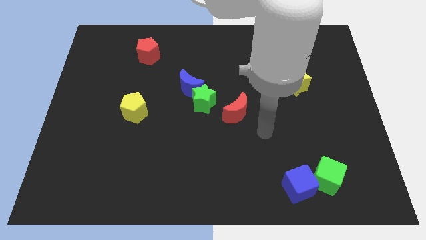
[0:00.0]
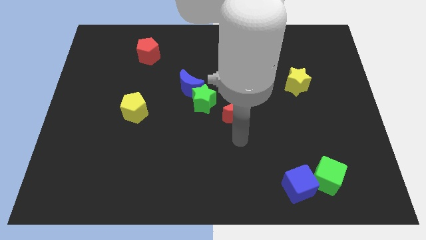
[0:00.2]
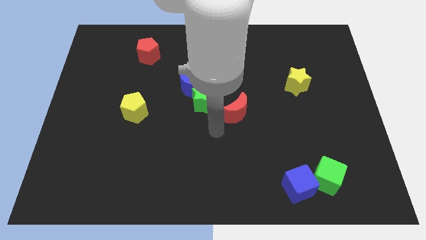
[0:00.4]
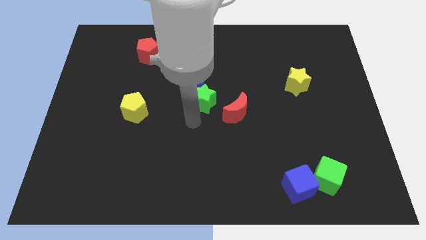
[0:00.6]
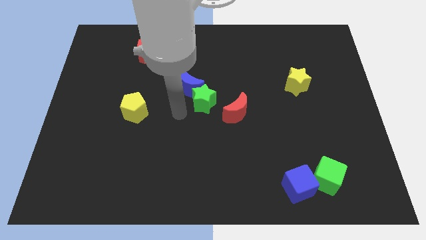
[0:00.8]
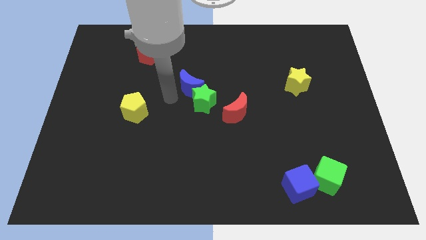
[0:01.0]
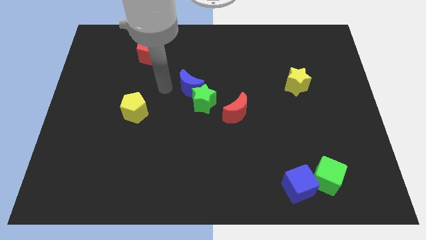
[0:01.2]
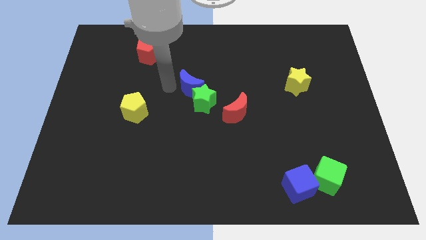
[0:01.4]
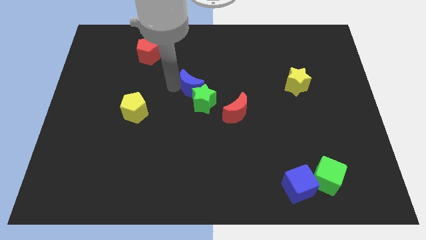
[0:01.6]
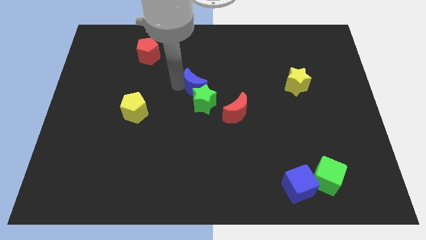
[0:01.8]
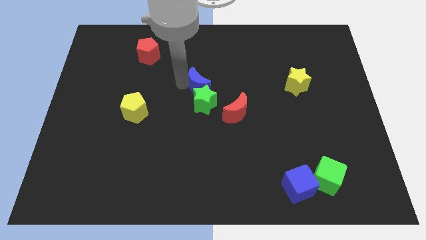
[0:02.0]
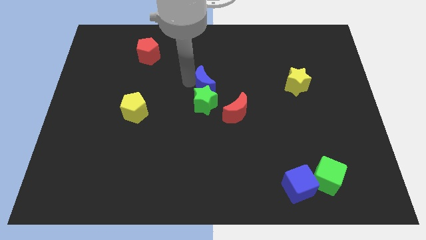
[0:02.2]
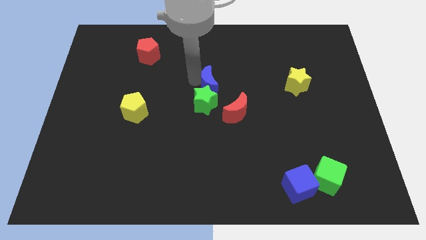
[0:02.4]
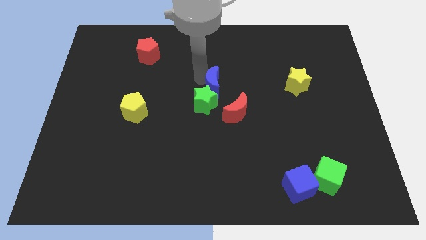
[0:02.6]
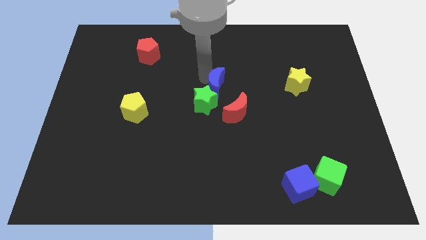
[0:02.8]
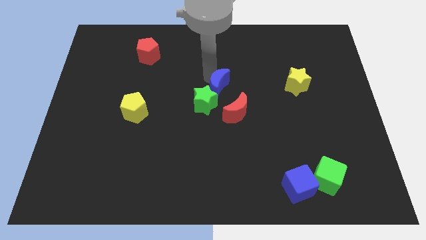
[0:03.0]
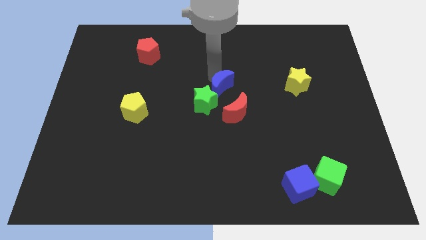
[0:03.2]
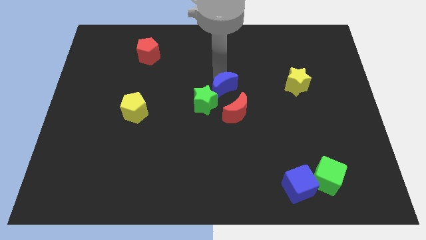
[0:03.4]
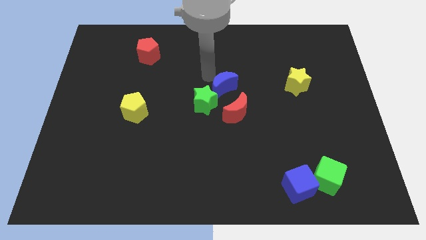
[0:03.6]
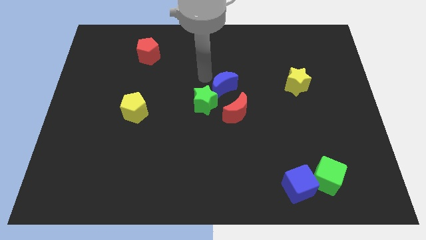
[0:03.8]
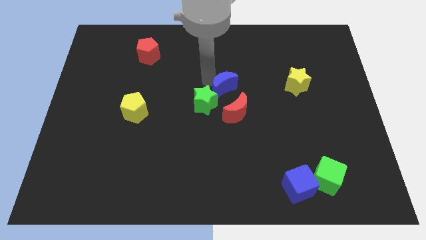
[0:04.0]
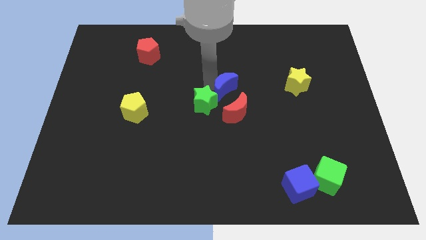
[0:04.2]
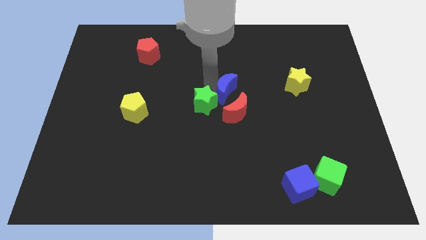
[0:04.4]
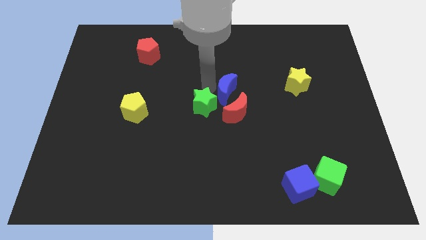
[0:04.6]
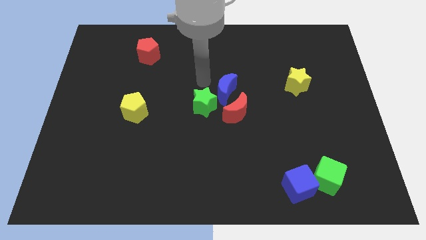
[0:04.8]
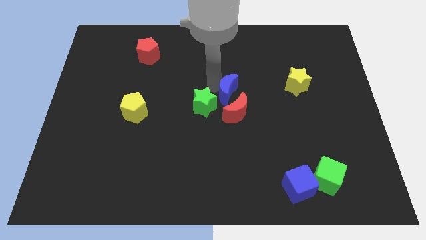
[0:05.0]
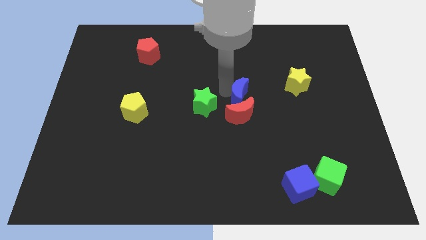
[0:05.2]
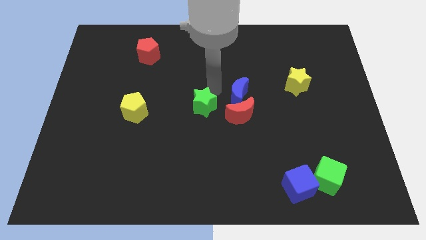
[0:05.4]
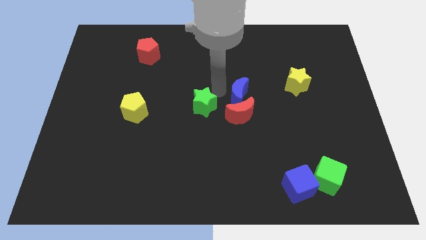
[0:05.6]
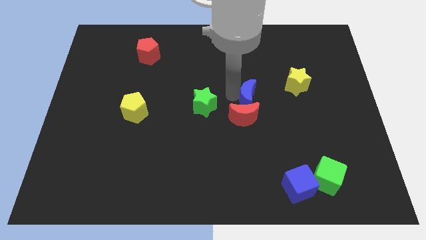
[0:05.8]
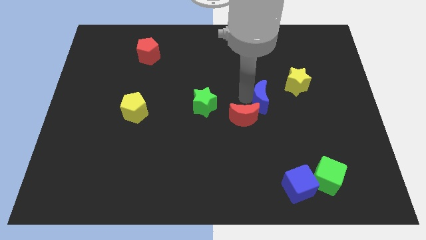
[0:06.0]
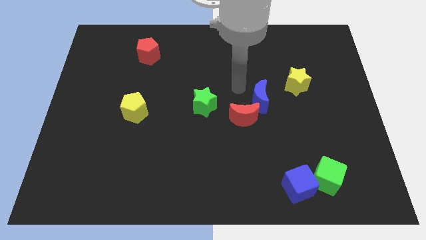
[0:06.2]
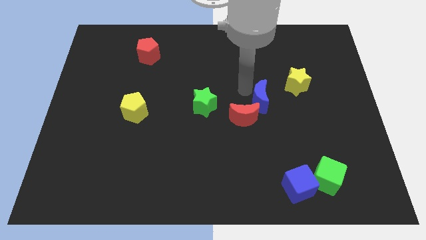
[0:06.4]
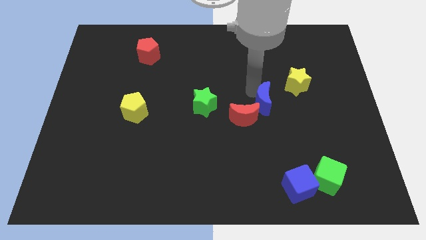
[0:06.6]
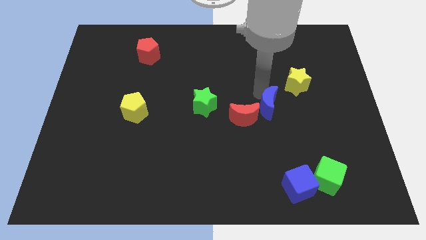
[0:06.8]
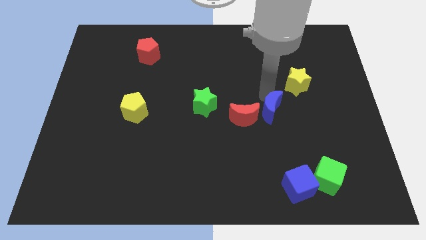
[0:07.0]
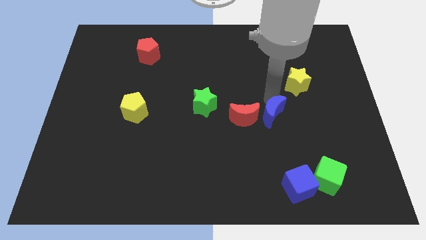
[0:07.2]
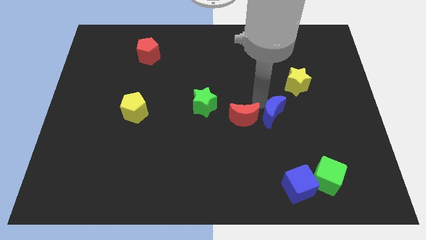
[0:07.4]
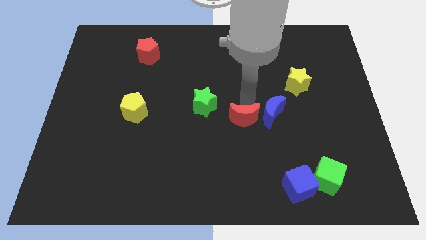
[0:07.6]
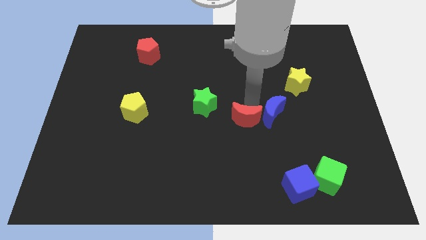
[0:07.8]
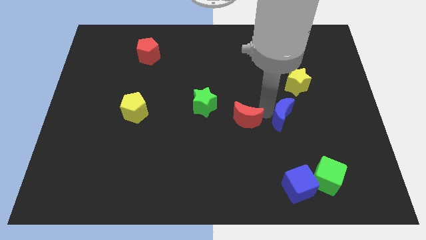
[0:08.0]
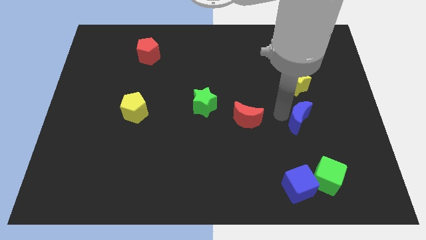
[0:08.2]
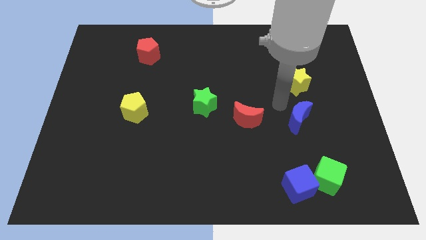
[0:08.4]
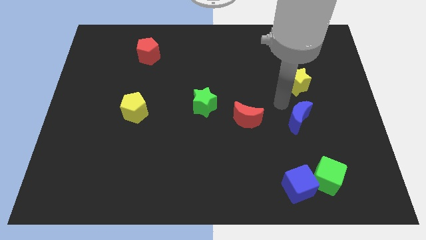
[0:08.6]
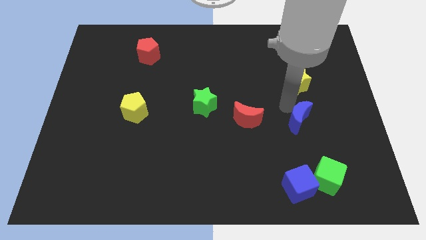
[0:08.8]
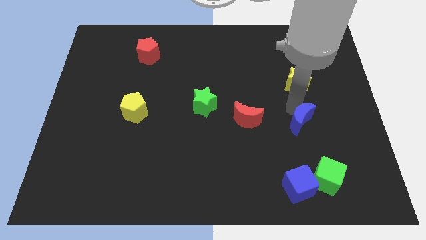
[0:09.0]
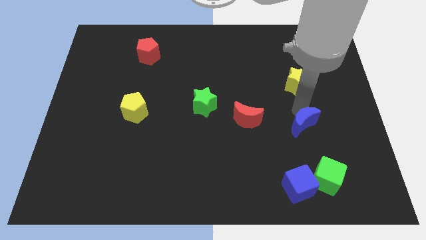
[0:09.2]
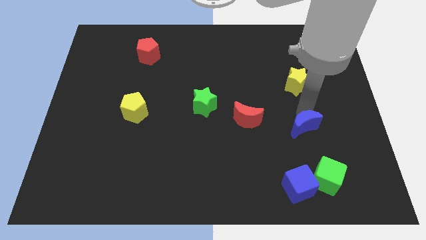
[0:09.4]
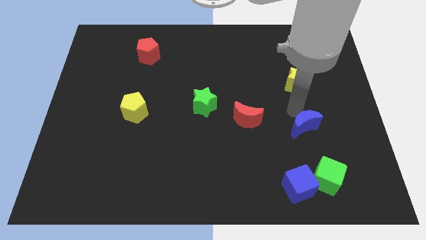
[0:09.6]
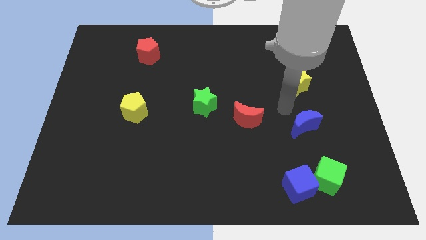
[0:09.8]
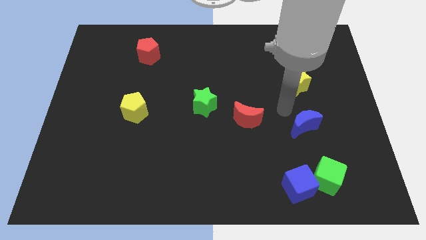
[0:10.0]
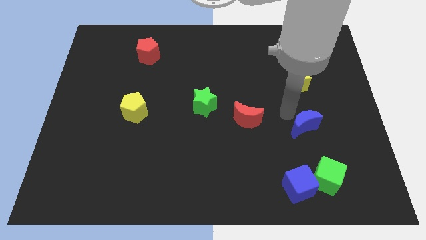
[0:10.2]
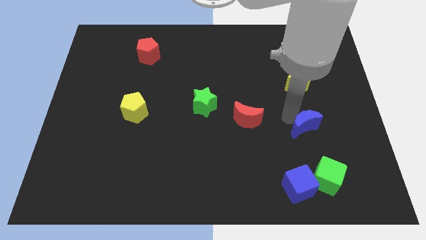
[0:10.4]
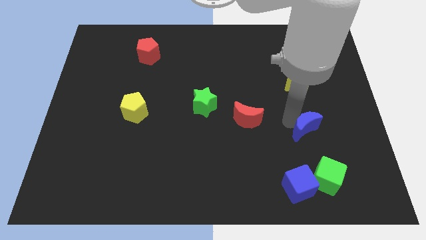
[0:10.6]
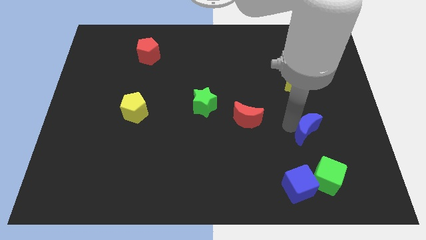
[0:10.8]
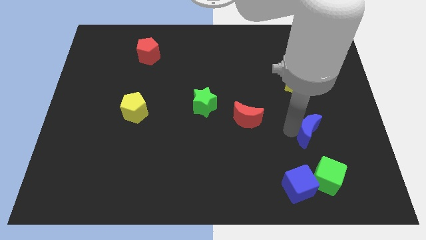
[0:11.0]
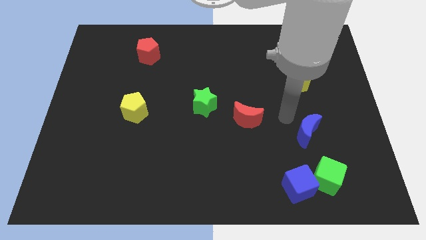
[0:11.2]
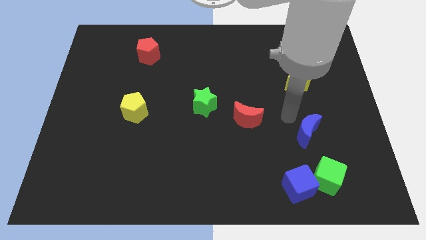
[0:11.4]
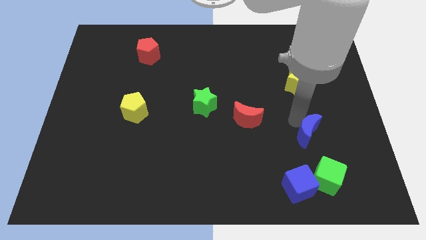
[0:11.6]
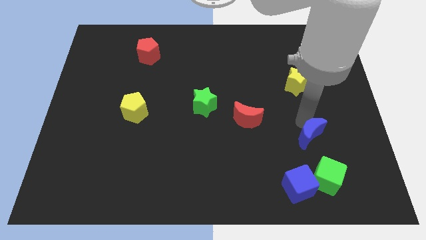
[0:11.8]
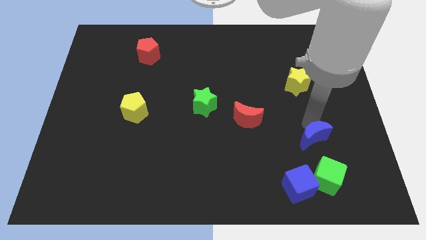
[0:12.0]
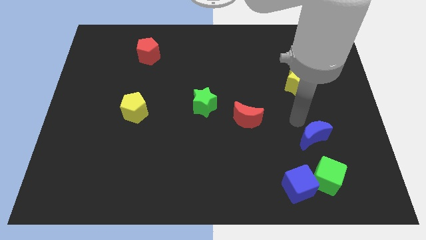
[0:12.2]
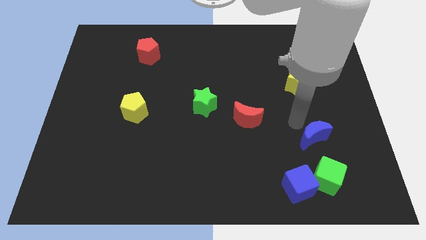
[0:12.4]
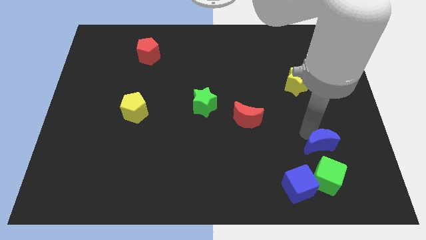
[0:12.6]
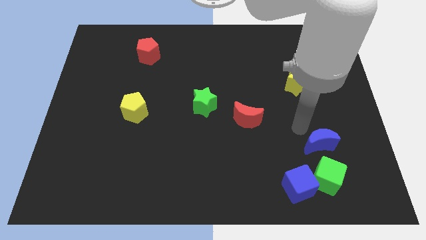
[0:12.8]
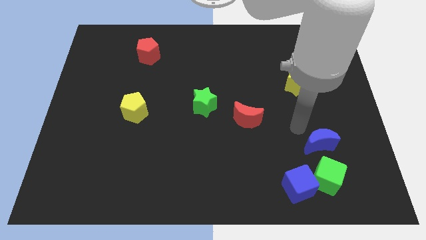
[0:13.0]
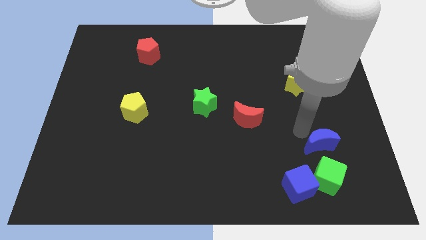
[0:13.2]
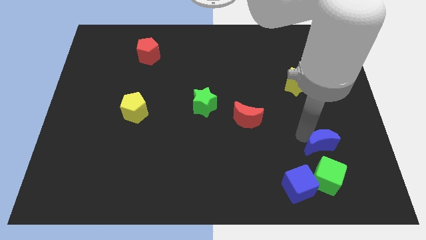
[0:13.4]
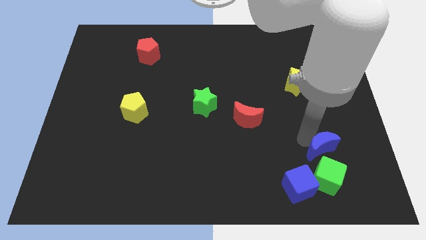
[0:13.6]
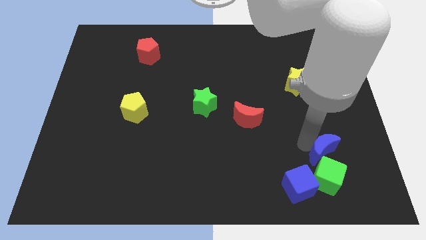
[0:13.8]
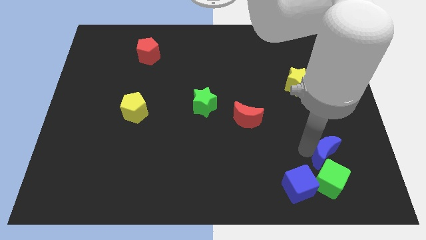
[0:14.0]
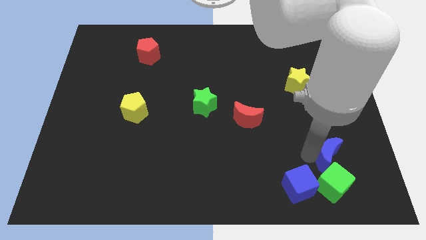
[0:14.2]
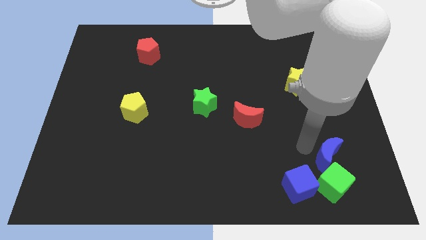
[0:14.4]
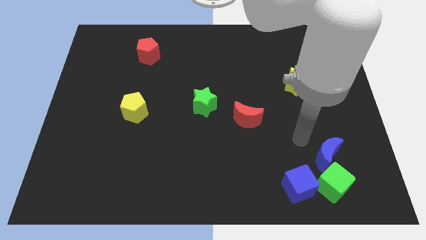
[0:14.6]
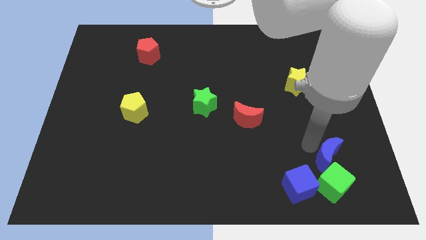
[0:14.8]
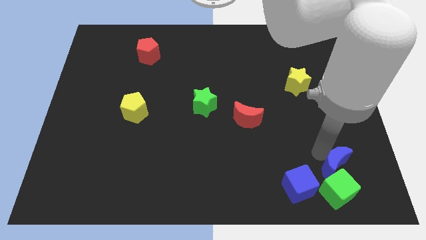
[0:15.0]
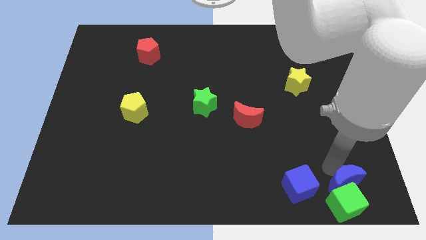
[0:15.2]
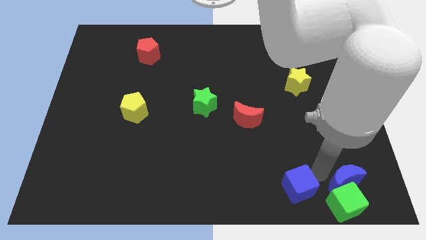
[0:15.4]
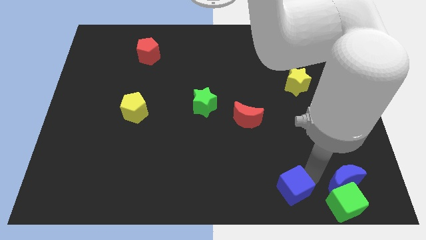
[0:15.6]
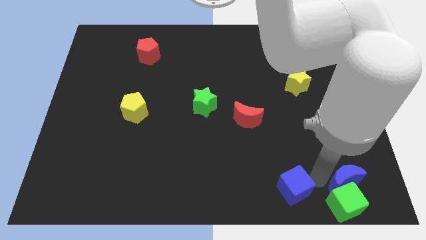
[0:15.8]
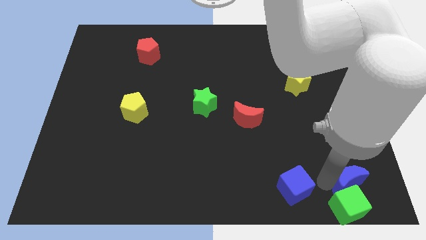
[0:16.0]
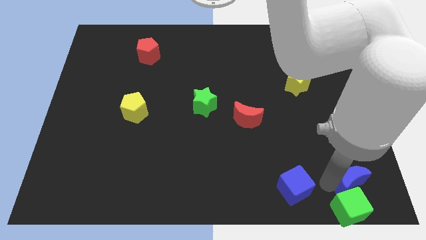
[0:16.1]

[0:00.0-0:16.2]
put the blue moon to the bottom right corner

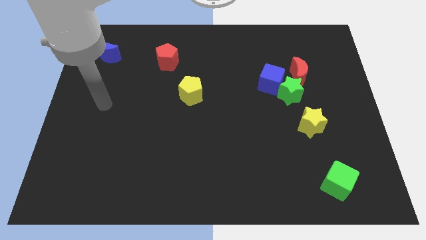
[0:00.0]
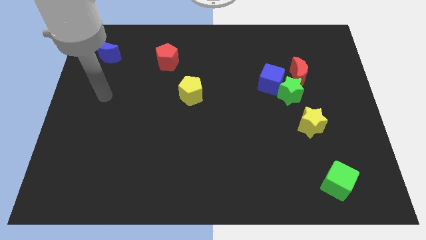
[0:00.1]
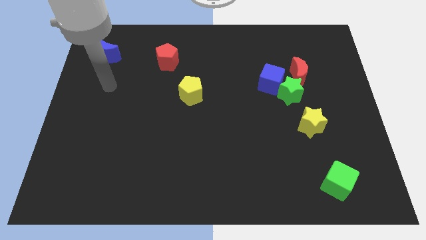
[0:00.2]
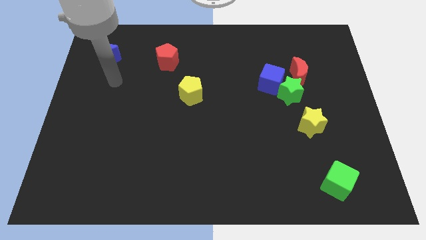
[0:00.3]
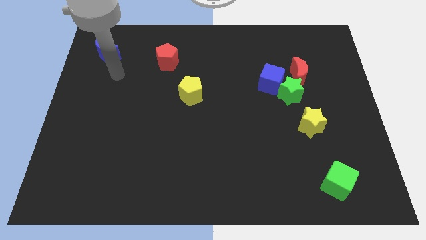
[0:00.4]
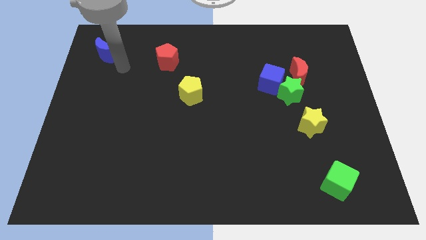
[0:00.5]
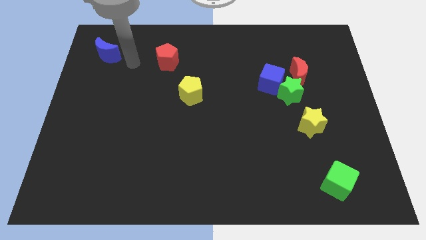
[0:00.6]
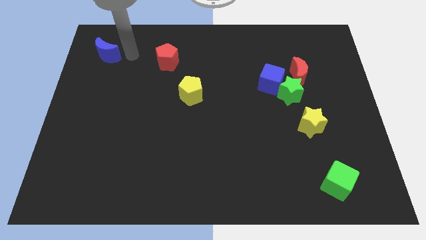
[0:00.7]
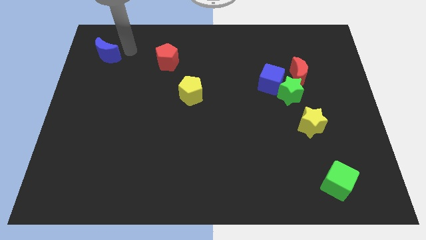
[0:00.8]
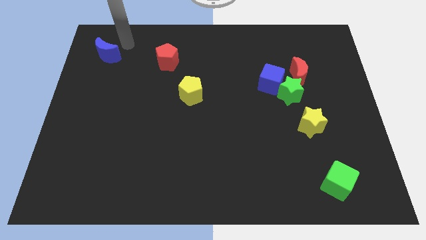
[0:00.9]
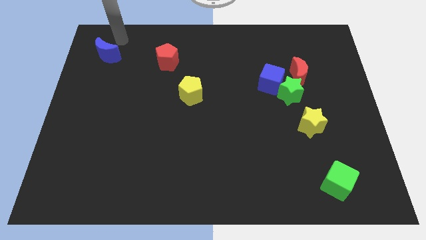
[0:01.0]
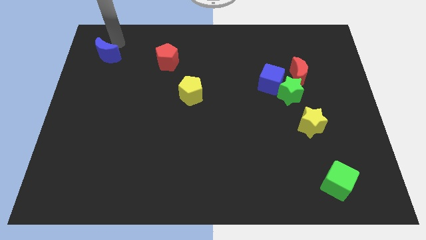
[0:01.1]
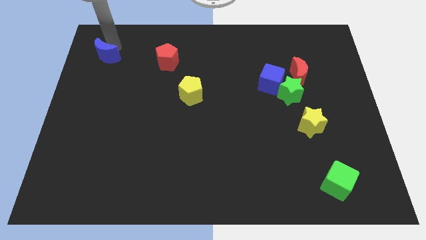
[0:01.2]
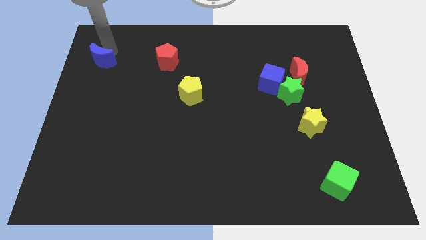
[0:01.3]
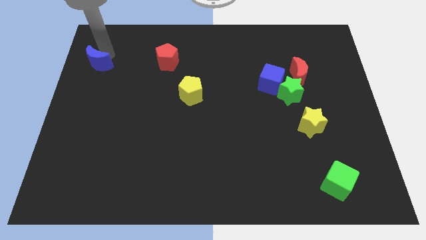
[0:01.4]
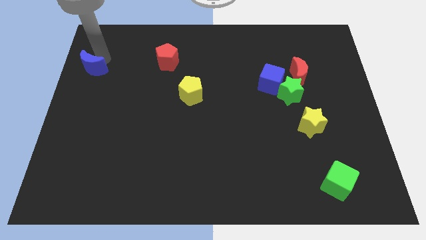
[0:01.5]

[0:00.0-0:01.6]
move the blue moon to the left side
